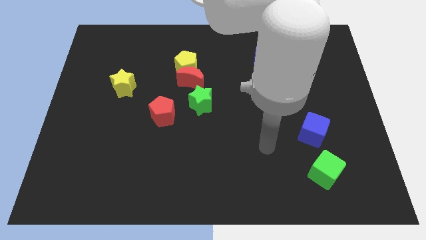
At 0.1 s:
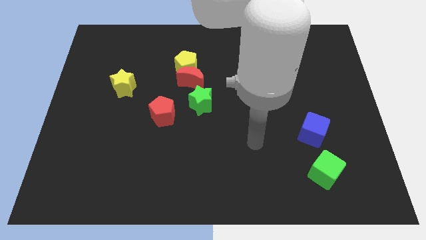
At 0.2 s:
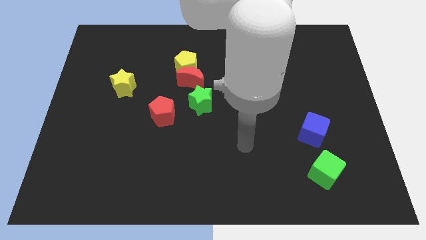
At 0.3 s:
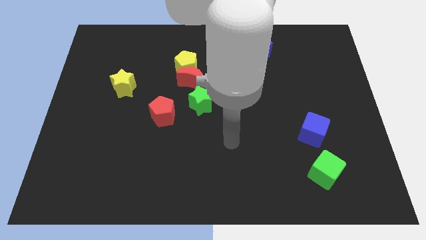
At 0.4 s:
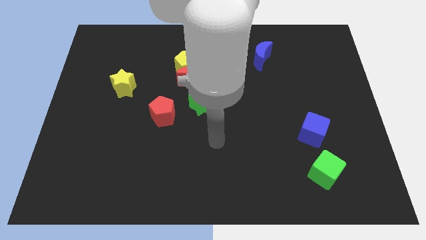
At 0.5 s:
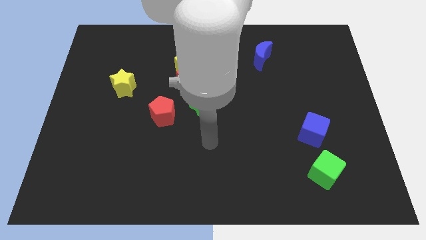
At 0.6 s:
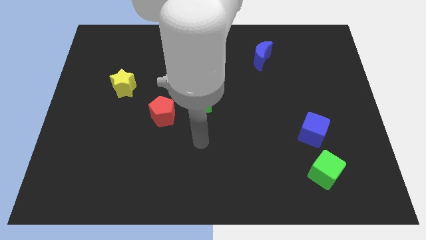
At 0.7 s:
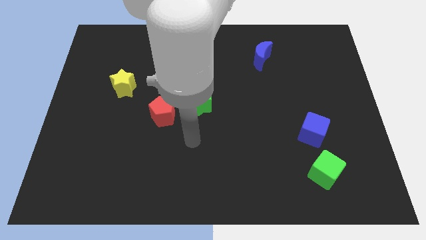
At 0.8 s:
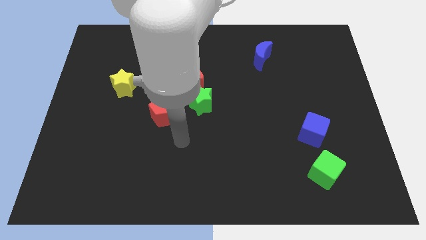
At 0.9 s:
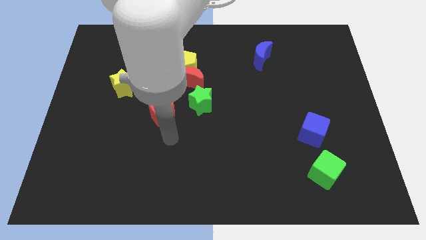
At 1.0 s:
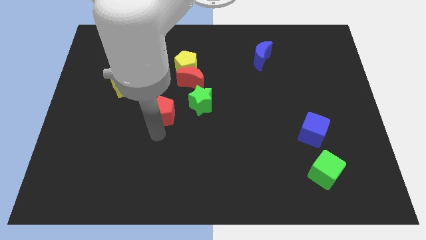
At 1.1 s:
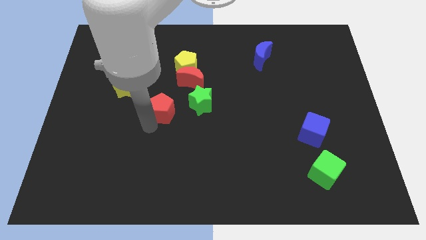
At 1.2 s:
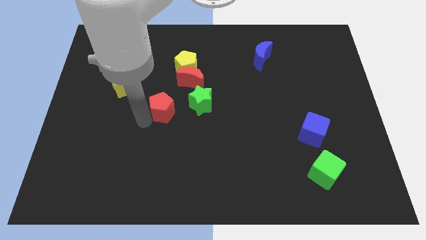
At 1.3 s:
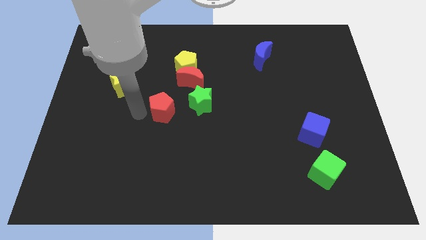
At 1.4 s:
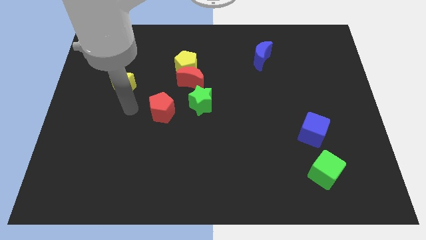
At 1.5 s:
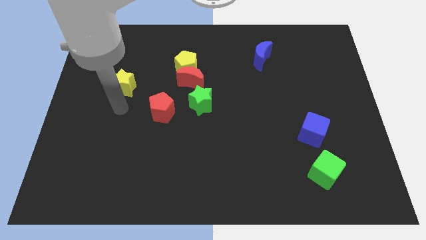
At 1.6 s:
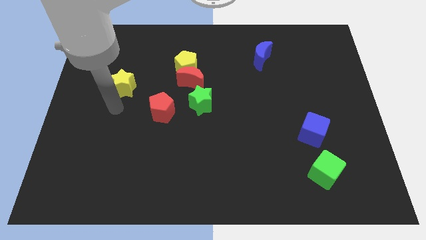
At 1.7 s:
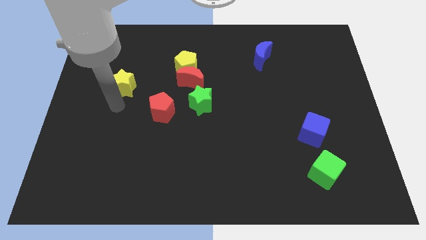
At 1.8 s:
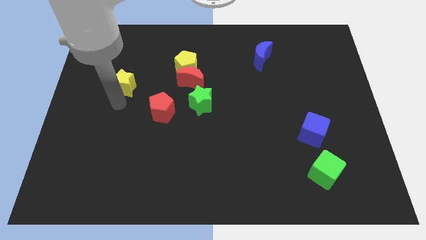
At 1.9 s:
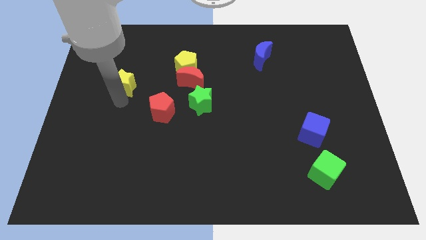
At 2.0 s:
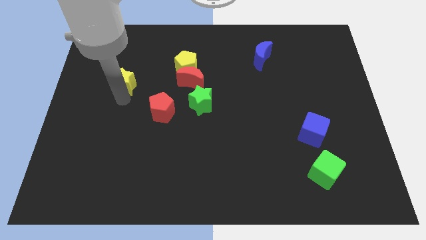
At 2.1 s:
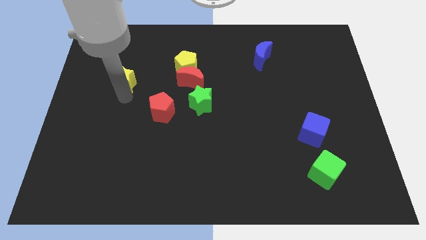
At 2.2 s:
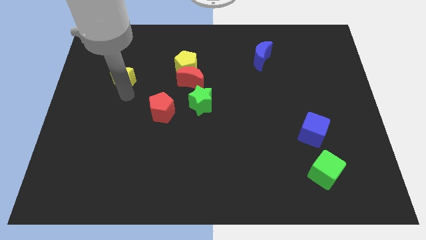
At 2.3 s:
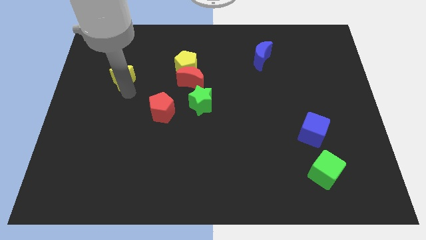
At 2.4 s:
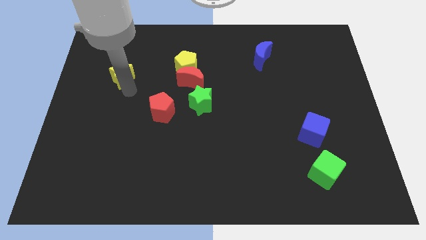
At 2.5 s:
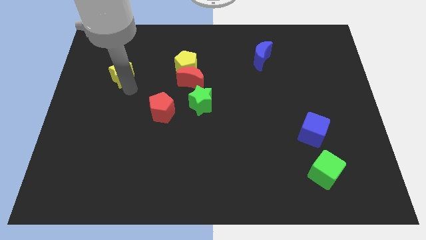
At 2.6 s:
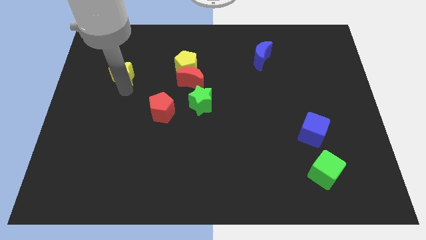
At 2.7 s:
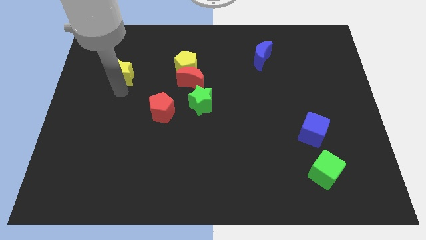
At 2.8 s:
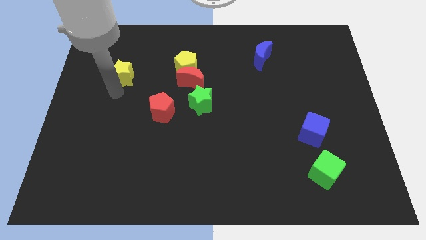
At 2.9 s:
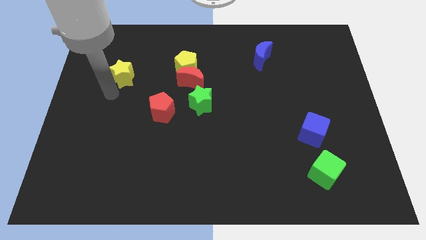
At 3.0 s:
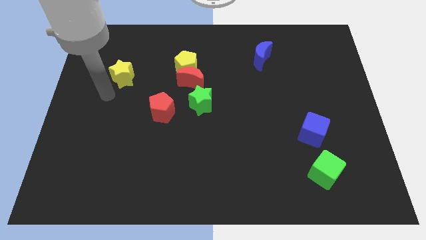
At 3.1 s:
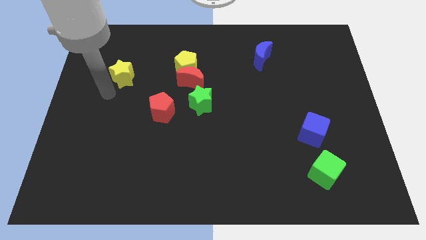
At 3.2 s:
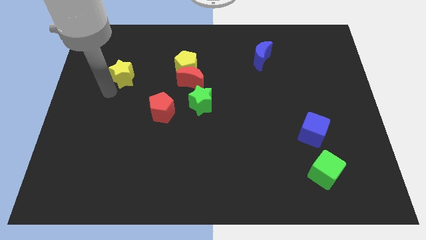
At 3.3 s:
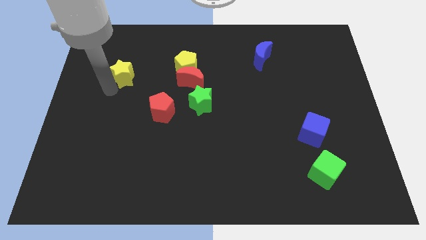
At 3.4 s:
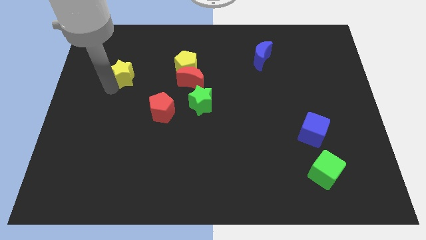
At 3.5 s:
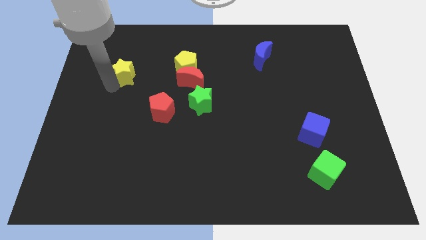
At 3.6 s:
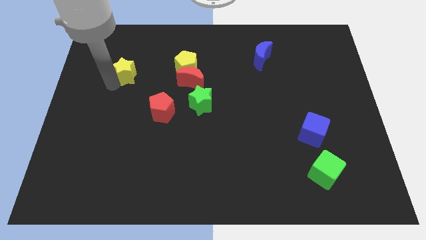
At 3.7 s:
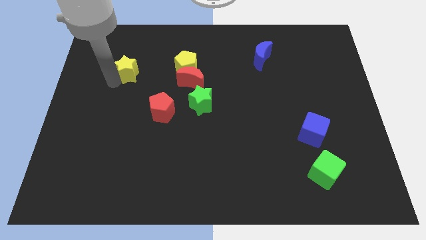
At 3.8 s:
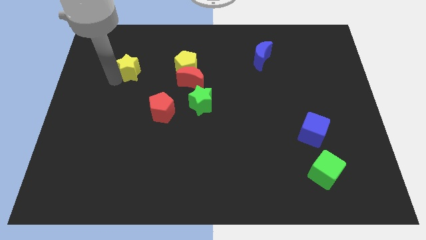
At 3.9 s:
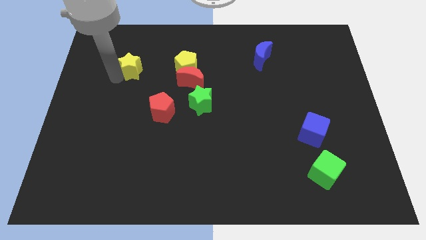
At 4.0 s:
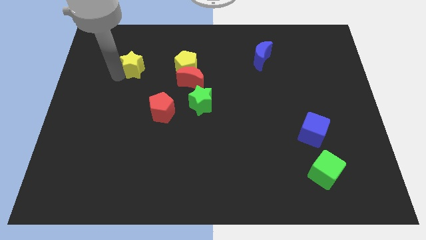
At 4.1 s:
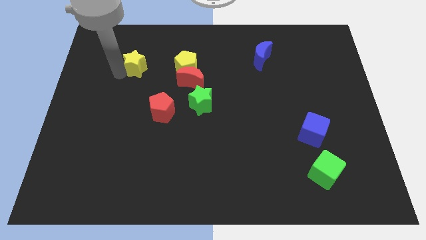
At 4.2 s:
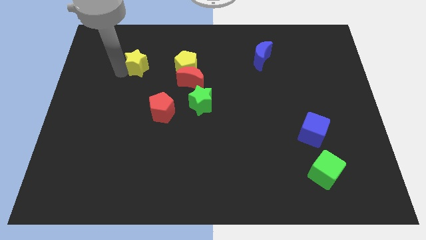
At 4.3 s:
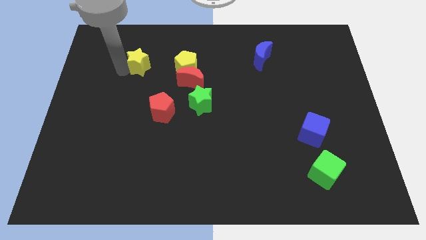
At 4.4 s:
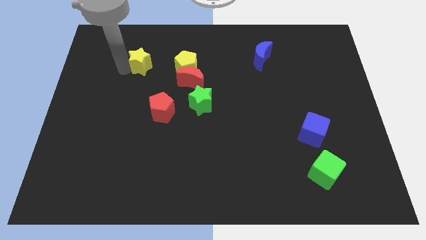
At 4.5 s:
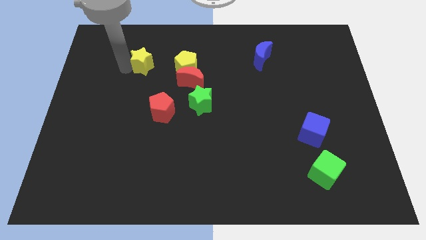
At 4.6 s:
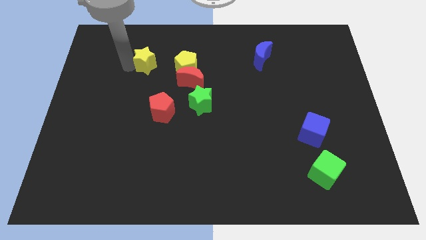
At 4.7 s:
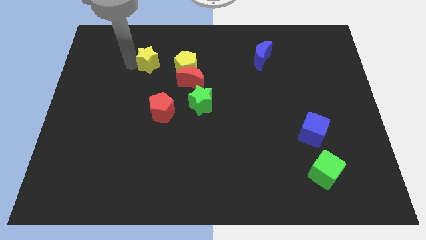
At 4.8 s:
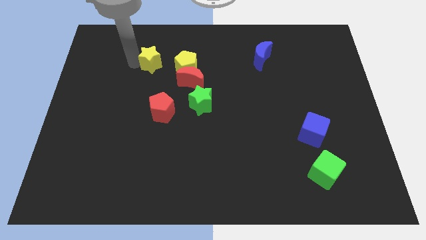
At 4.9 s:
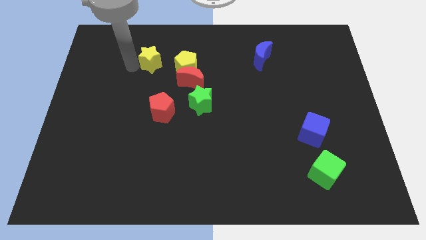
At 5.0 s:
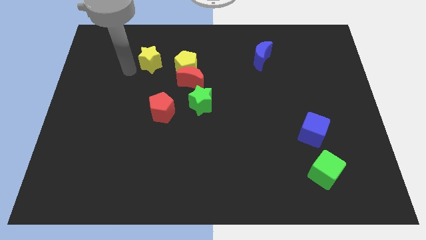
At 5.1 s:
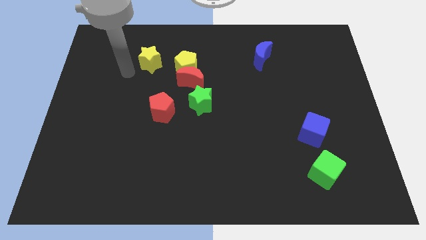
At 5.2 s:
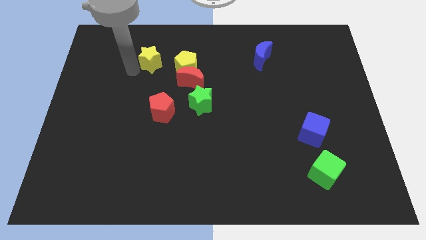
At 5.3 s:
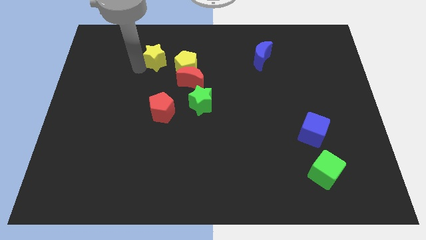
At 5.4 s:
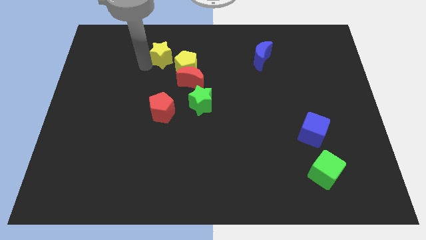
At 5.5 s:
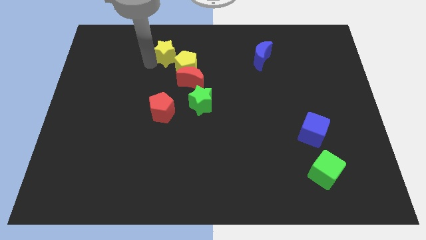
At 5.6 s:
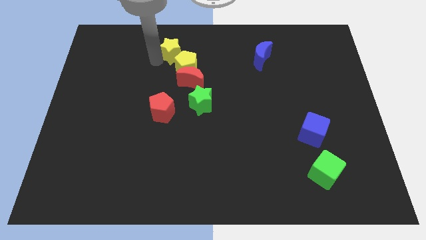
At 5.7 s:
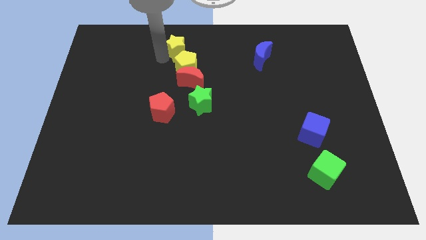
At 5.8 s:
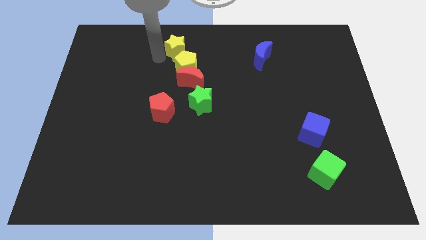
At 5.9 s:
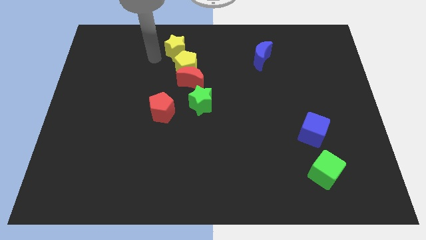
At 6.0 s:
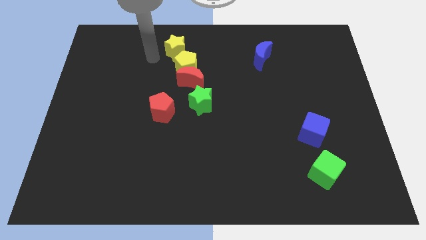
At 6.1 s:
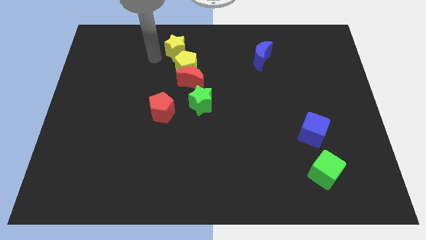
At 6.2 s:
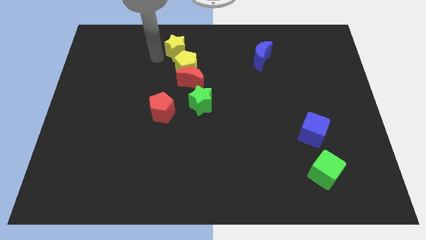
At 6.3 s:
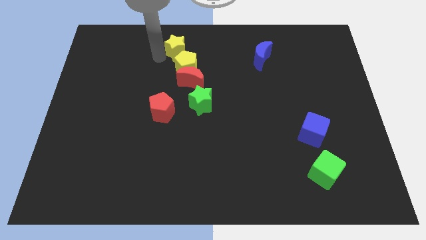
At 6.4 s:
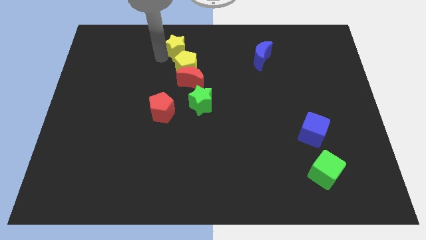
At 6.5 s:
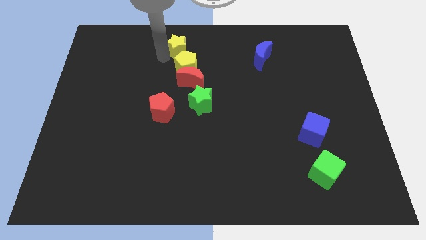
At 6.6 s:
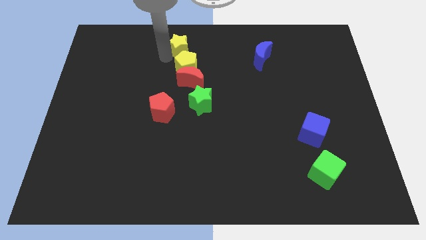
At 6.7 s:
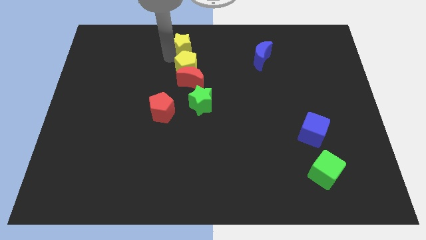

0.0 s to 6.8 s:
slide the yellow star to the top
